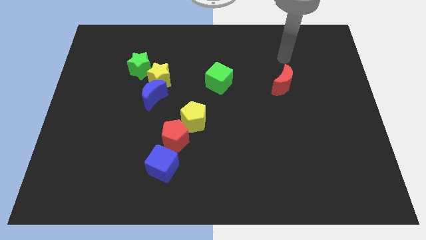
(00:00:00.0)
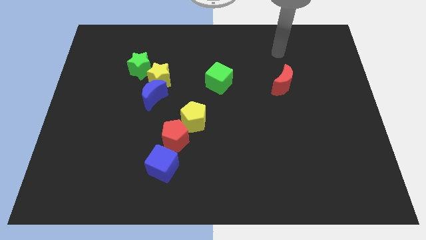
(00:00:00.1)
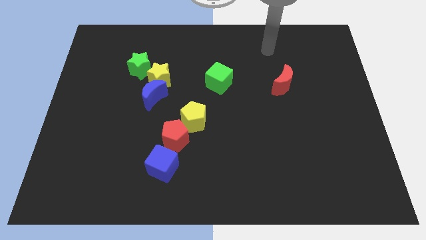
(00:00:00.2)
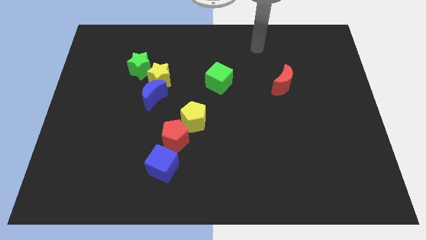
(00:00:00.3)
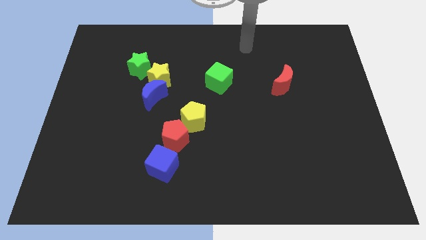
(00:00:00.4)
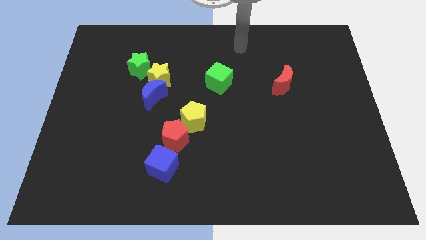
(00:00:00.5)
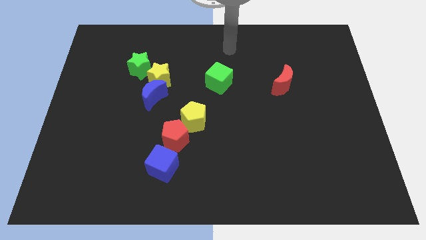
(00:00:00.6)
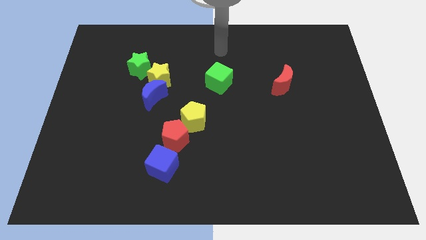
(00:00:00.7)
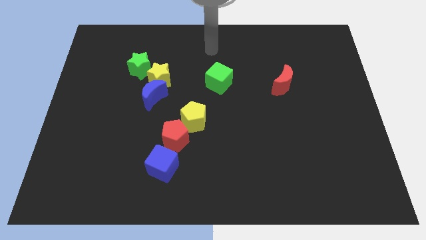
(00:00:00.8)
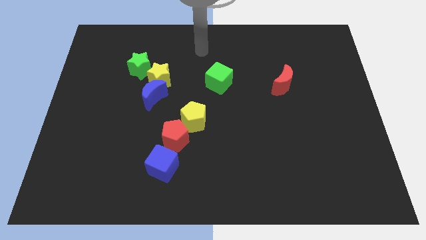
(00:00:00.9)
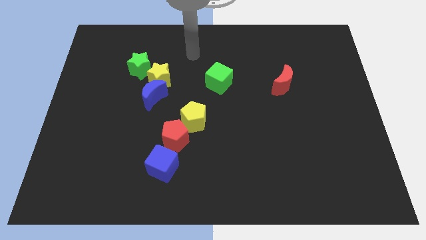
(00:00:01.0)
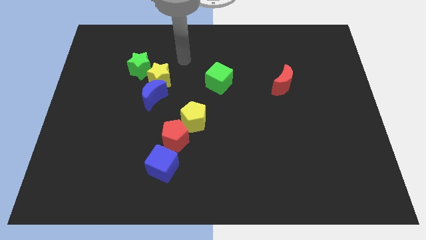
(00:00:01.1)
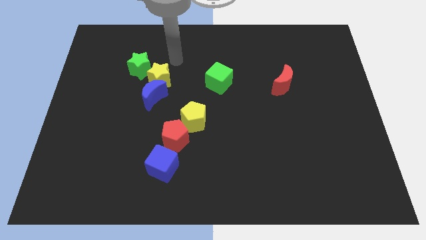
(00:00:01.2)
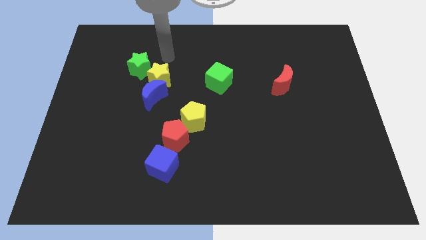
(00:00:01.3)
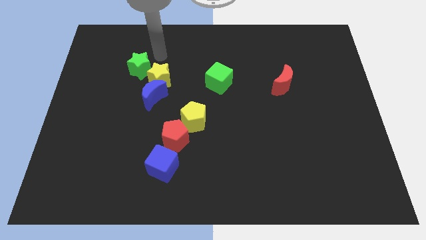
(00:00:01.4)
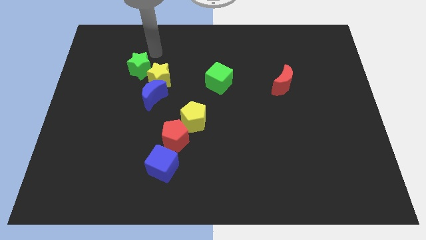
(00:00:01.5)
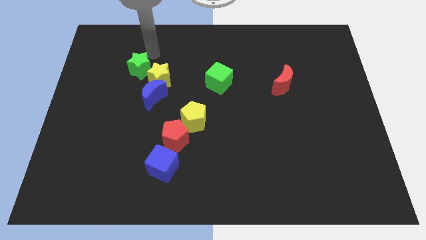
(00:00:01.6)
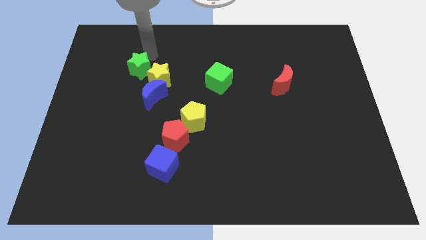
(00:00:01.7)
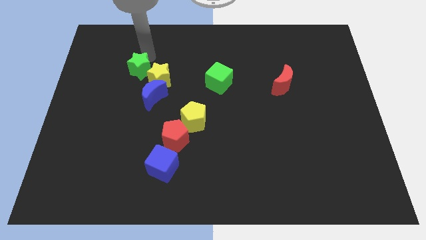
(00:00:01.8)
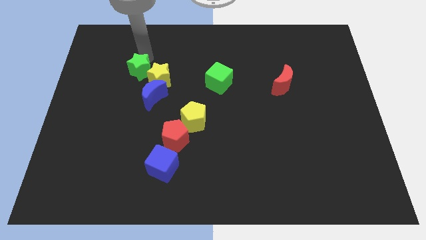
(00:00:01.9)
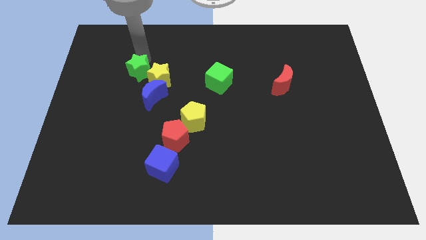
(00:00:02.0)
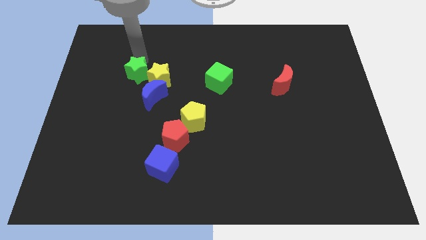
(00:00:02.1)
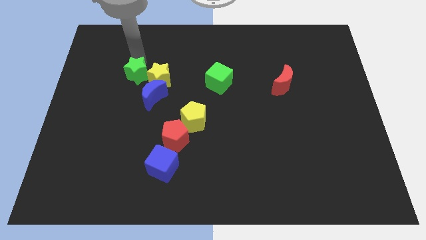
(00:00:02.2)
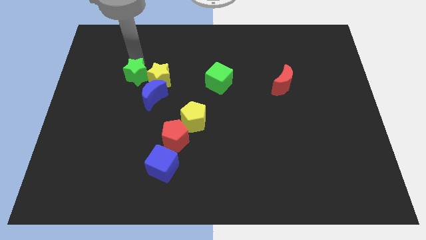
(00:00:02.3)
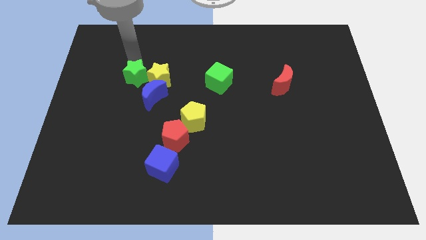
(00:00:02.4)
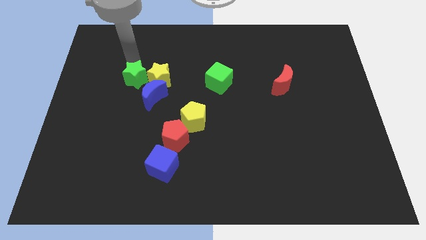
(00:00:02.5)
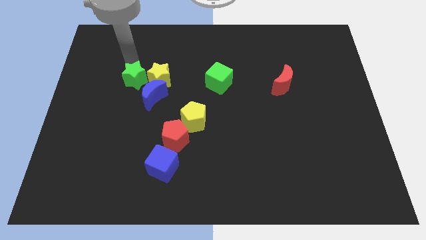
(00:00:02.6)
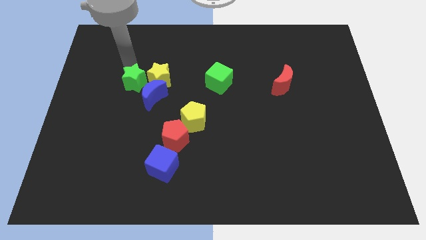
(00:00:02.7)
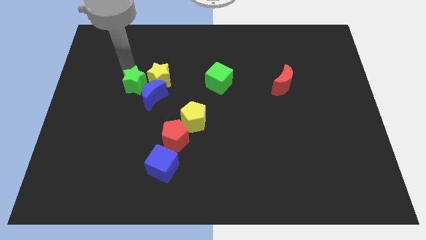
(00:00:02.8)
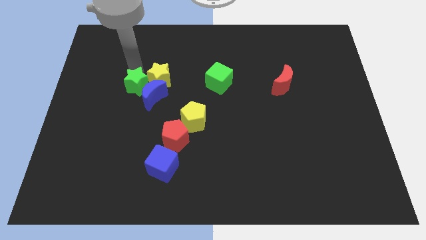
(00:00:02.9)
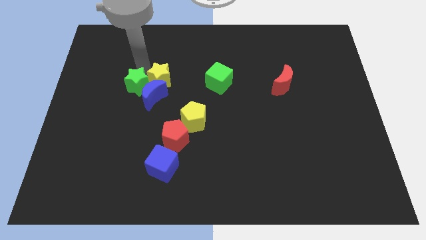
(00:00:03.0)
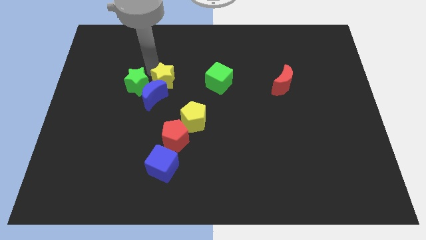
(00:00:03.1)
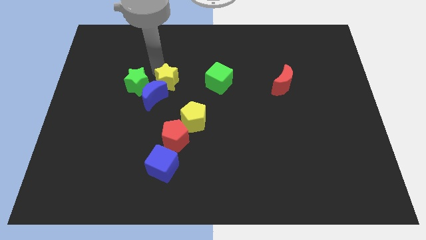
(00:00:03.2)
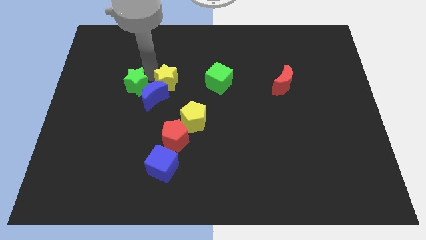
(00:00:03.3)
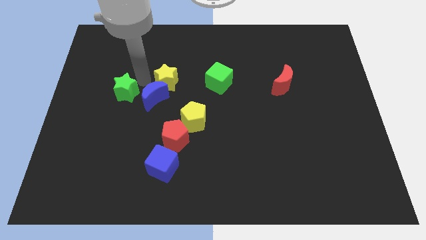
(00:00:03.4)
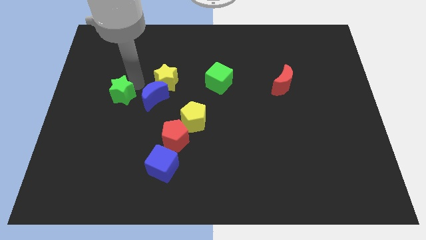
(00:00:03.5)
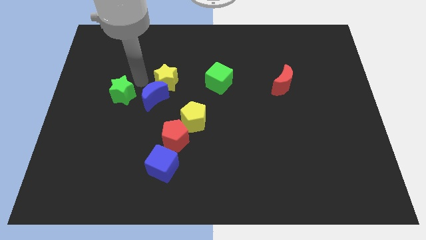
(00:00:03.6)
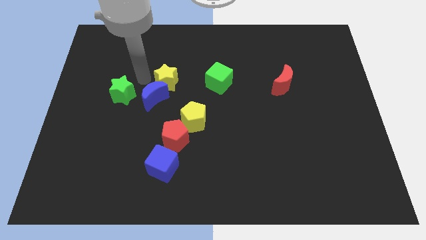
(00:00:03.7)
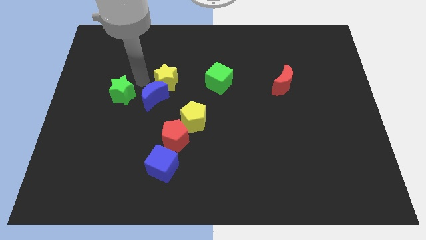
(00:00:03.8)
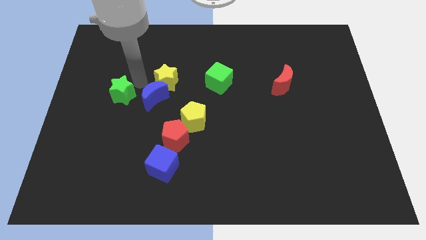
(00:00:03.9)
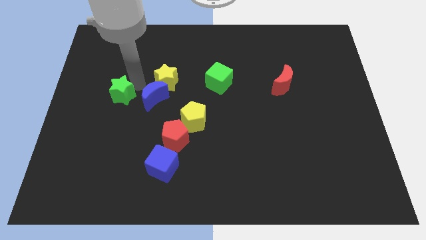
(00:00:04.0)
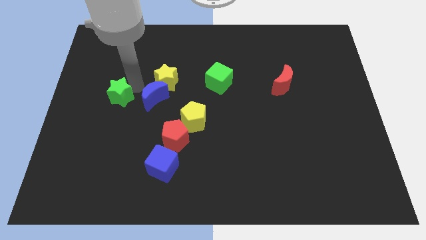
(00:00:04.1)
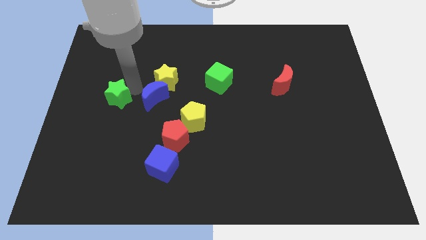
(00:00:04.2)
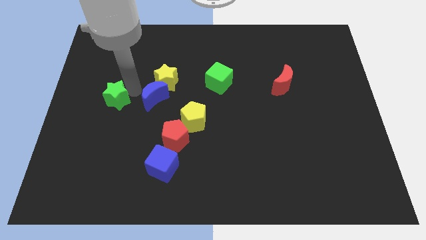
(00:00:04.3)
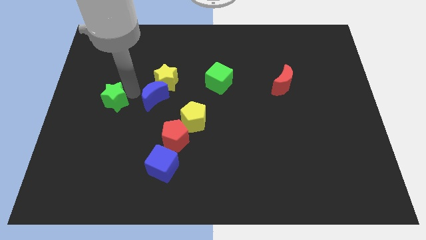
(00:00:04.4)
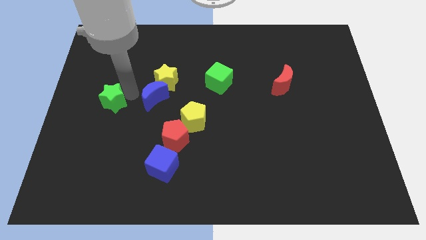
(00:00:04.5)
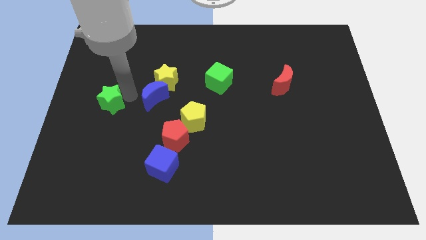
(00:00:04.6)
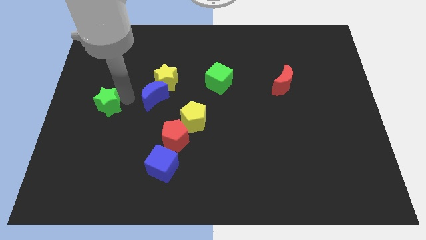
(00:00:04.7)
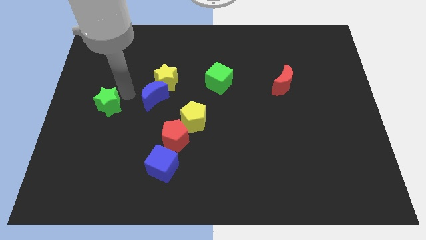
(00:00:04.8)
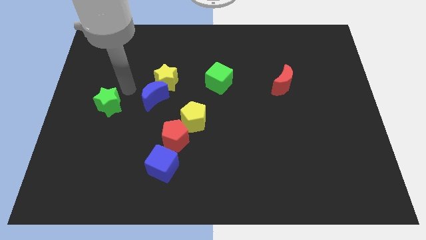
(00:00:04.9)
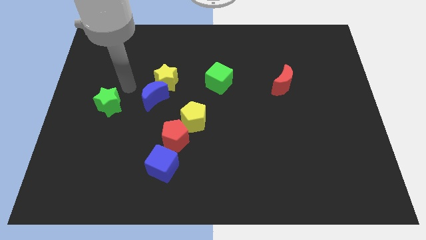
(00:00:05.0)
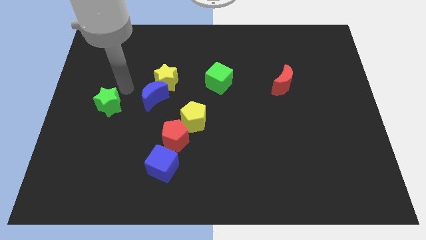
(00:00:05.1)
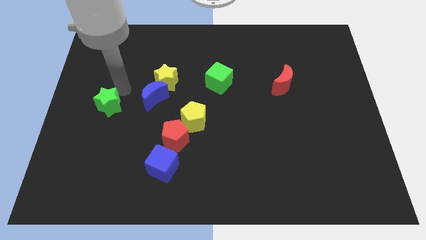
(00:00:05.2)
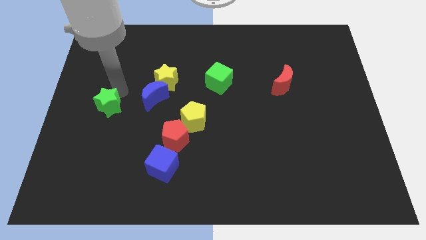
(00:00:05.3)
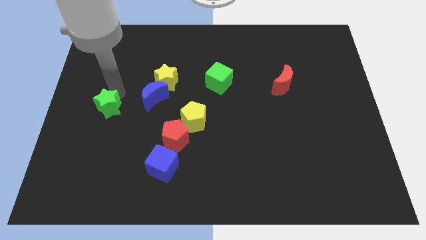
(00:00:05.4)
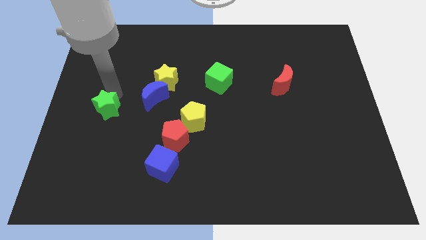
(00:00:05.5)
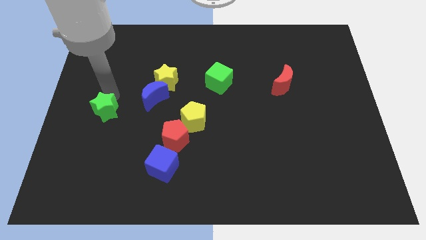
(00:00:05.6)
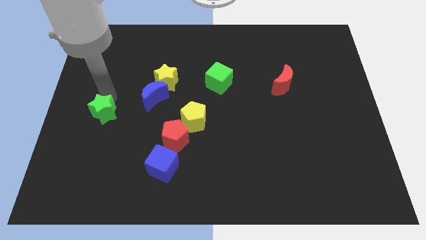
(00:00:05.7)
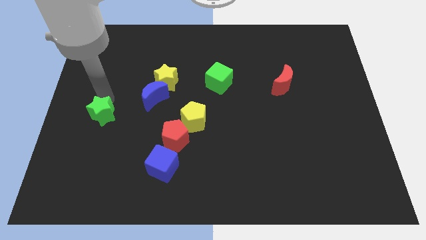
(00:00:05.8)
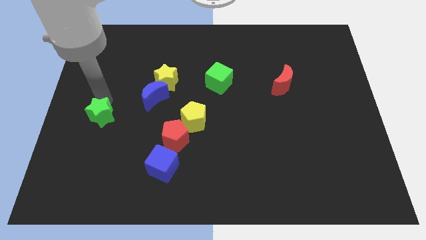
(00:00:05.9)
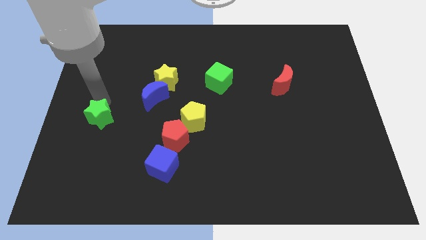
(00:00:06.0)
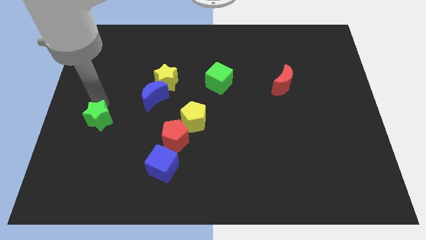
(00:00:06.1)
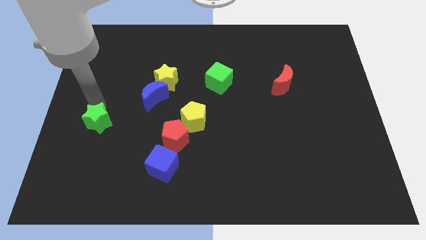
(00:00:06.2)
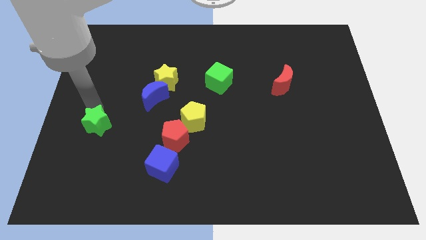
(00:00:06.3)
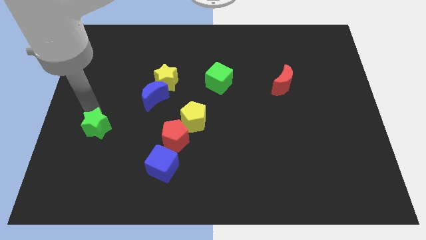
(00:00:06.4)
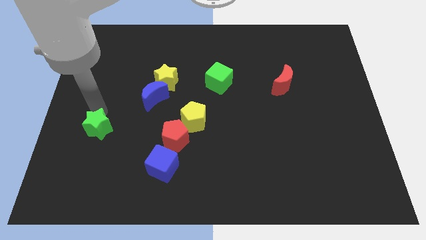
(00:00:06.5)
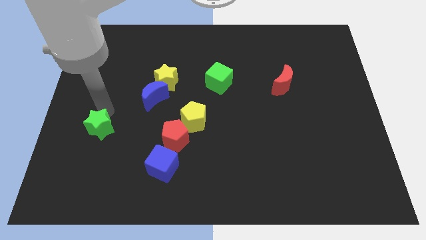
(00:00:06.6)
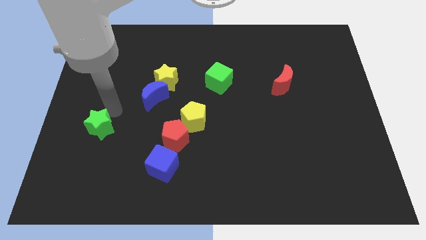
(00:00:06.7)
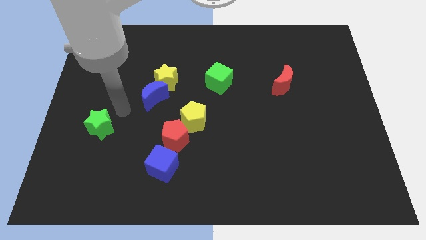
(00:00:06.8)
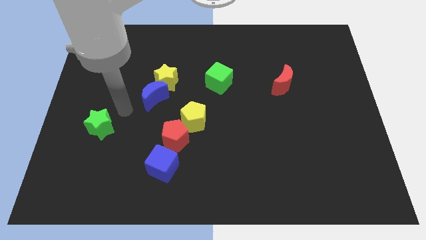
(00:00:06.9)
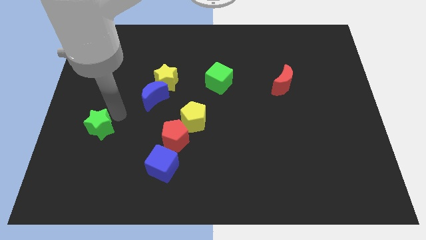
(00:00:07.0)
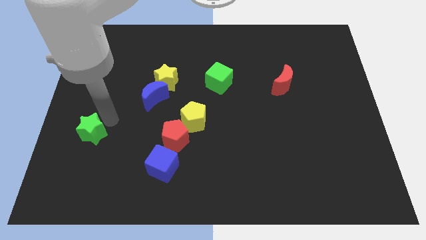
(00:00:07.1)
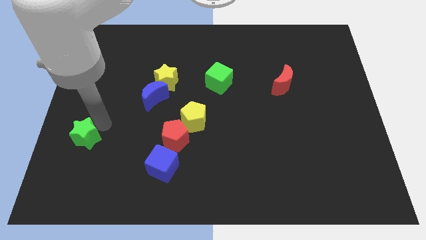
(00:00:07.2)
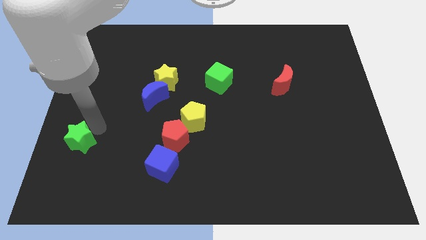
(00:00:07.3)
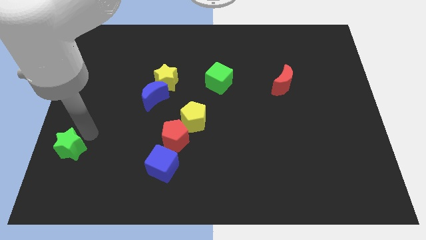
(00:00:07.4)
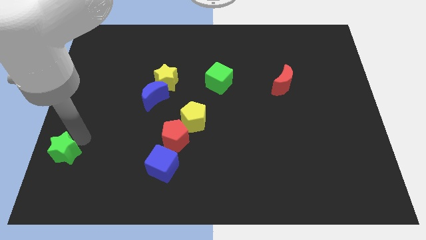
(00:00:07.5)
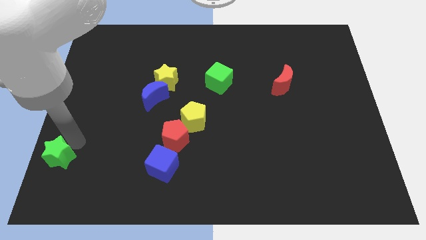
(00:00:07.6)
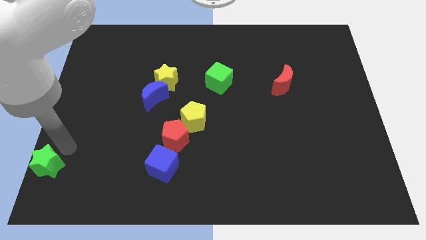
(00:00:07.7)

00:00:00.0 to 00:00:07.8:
slide the green star to the bottom left of the board
